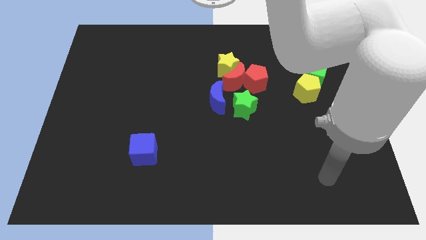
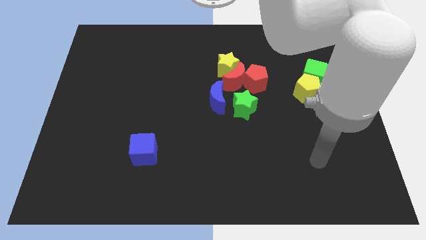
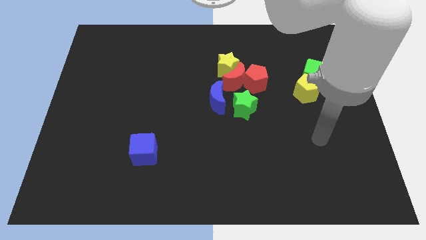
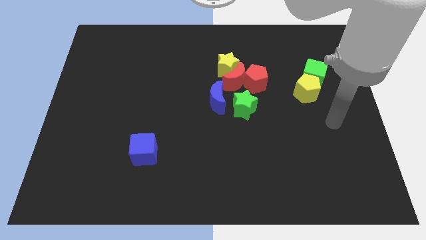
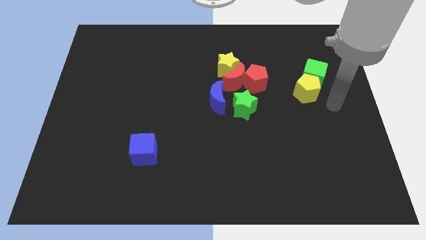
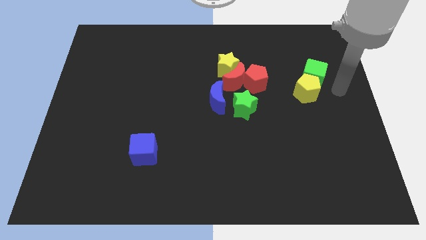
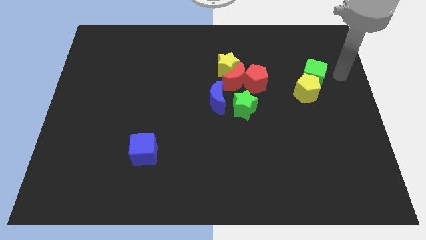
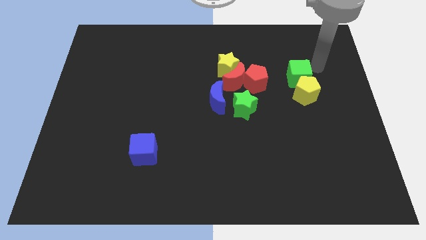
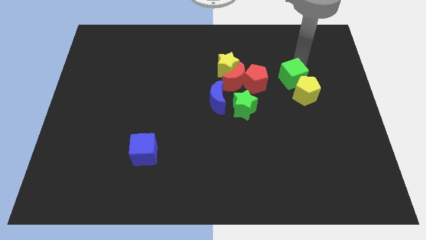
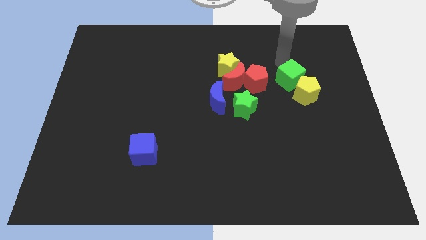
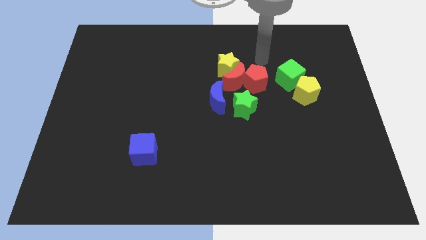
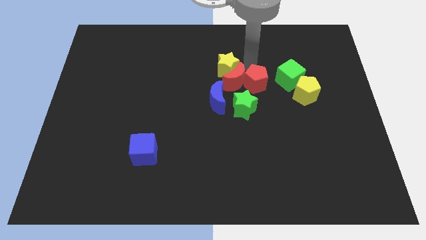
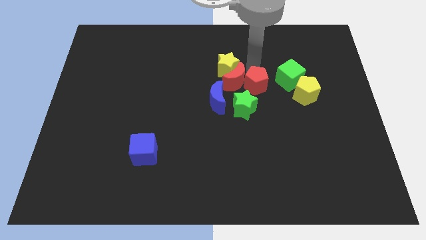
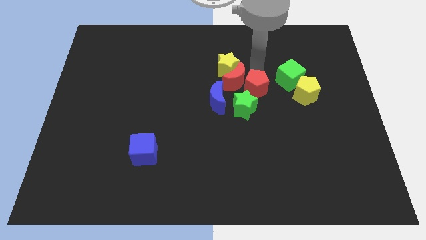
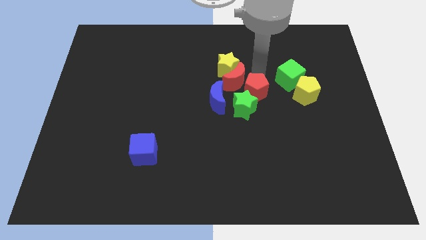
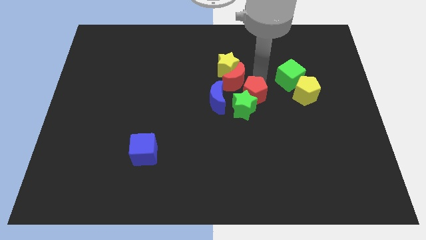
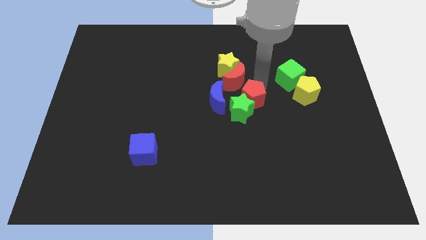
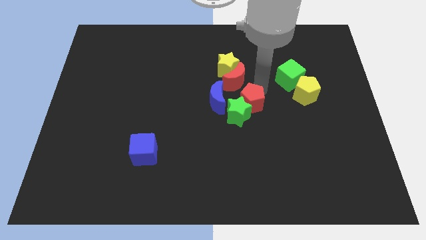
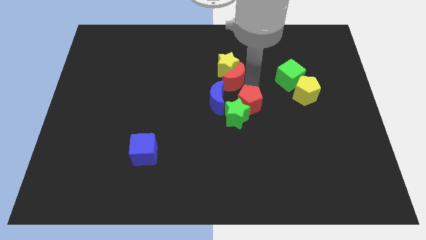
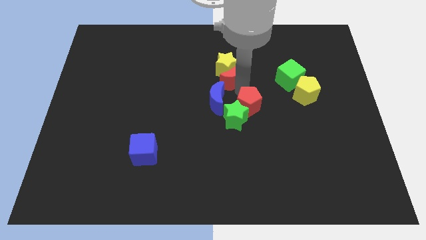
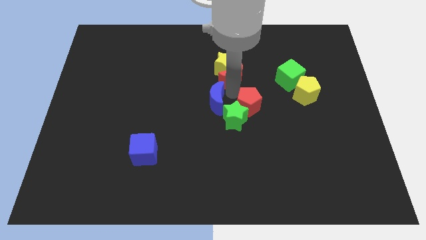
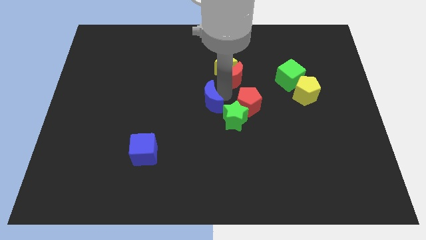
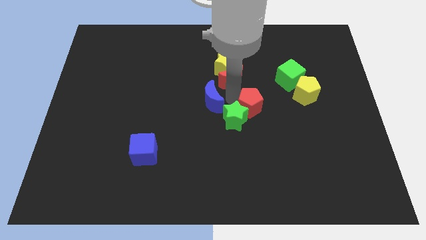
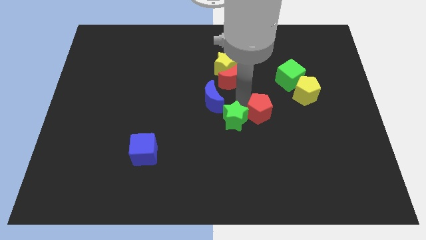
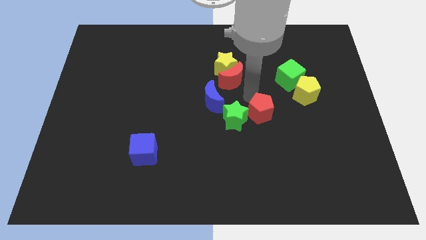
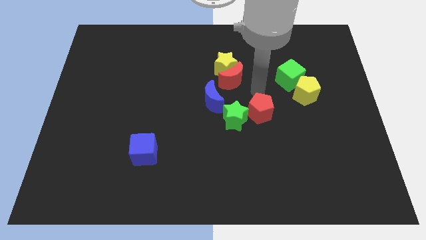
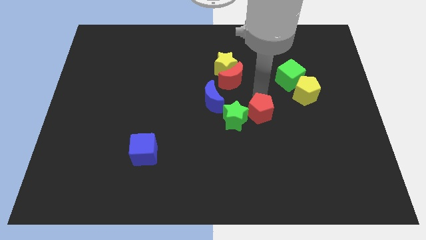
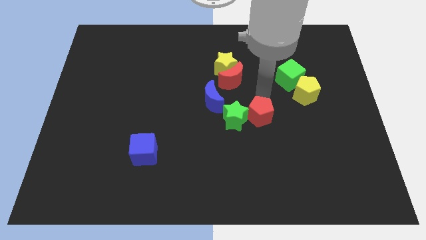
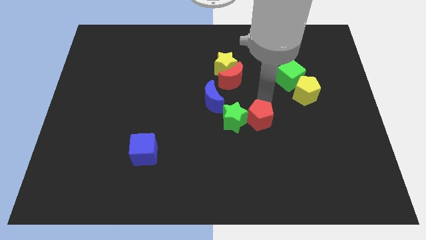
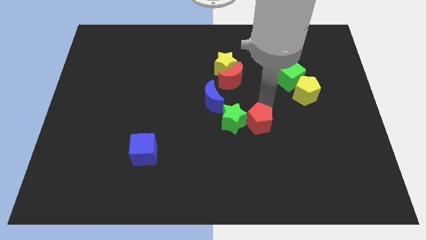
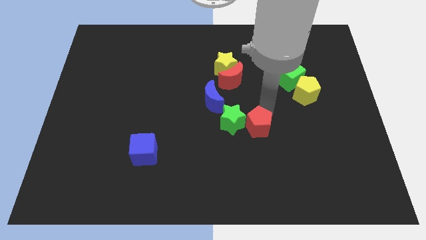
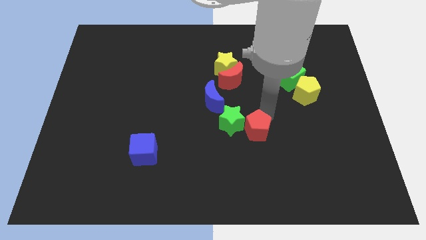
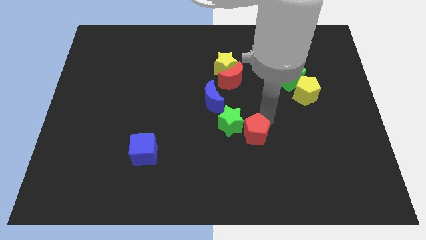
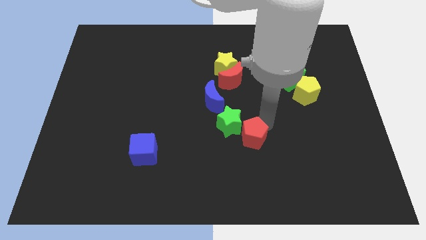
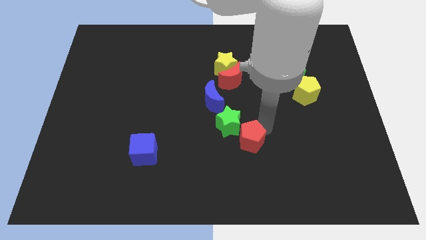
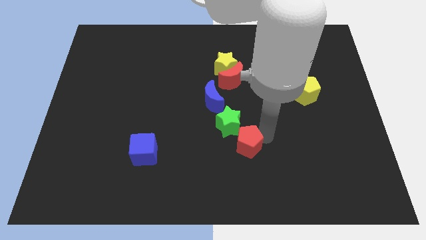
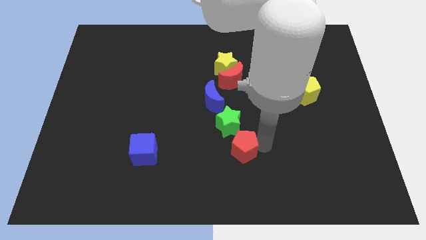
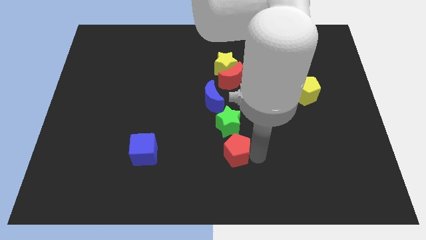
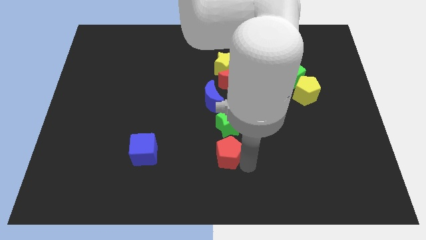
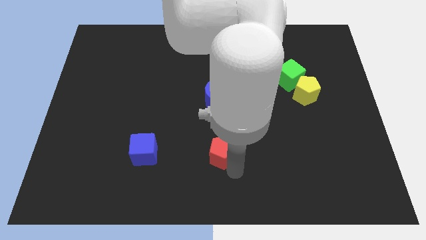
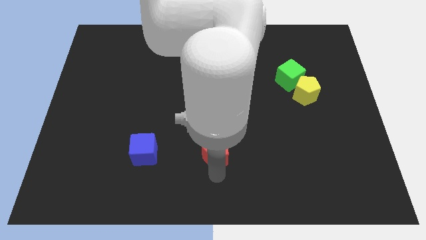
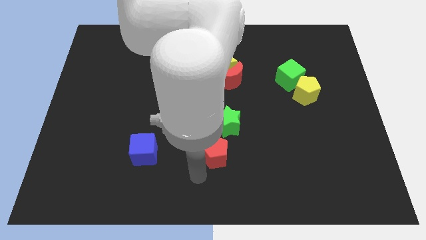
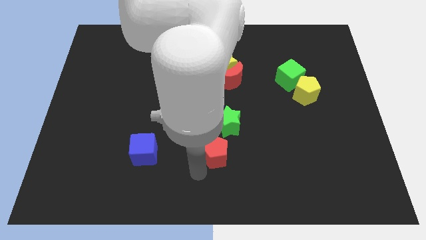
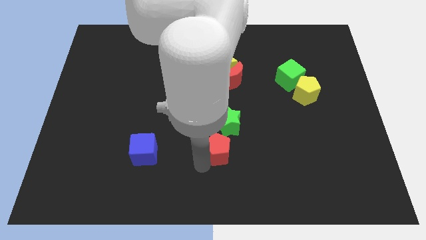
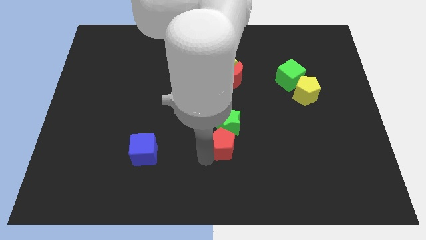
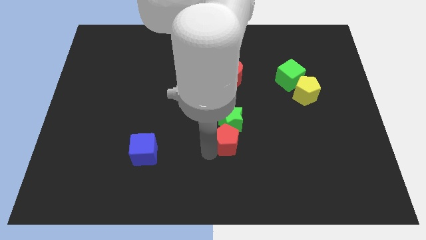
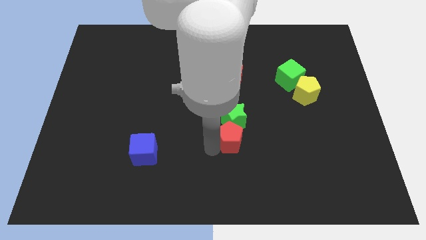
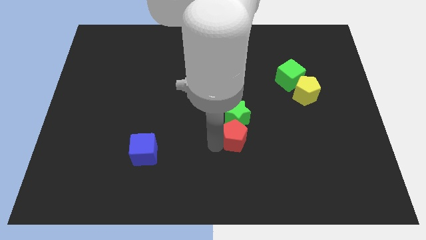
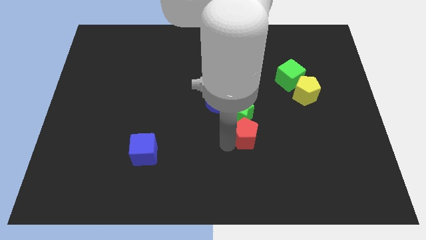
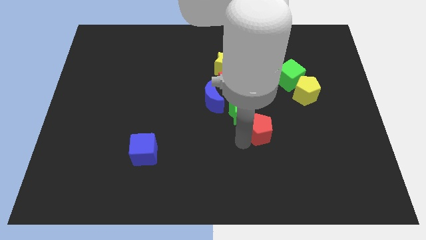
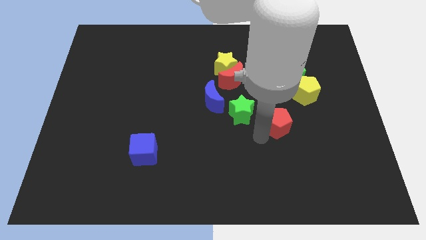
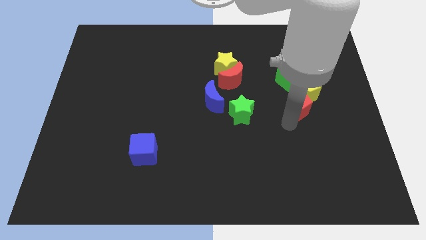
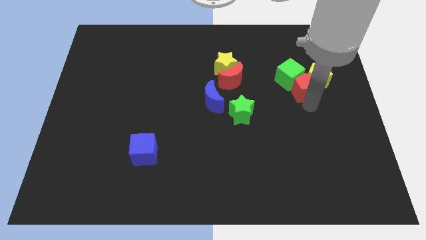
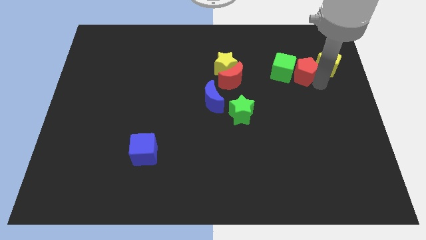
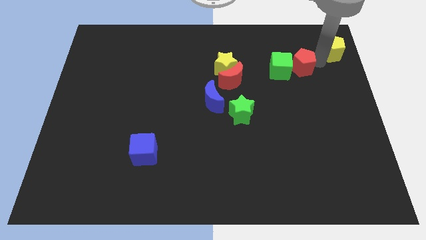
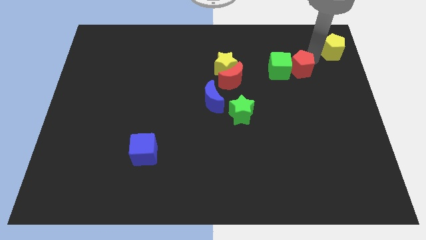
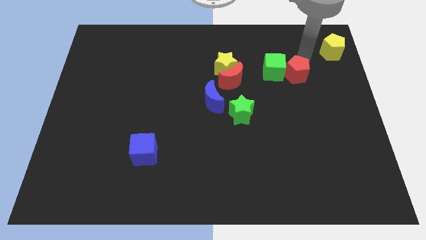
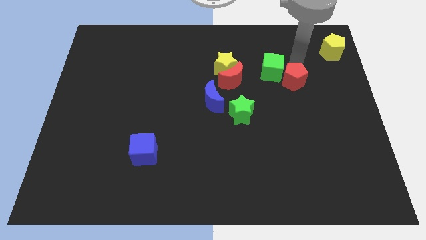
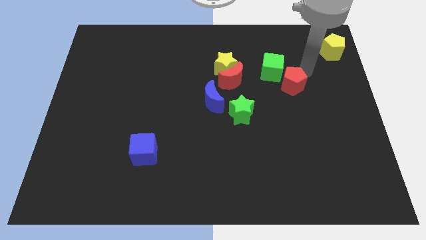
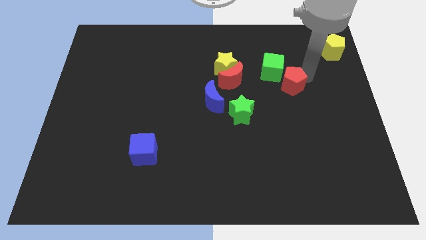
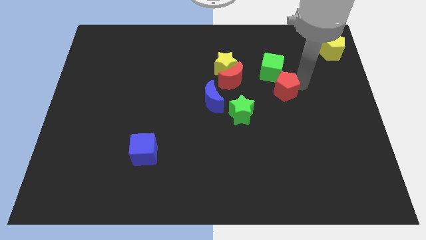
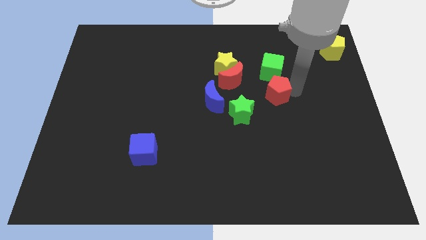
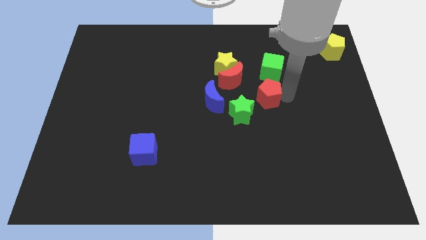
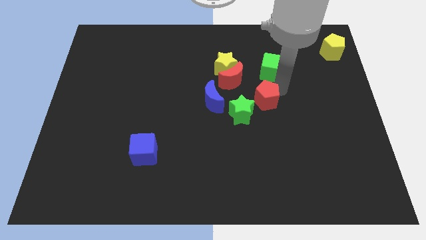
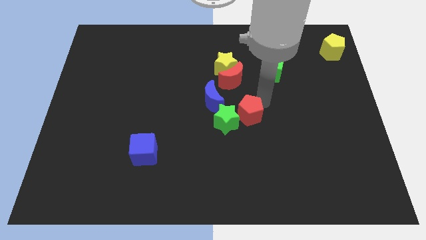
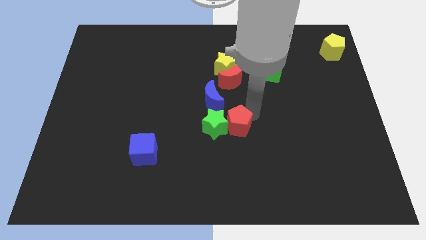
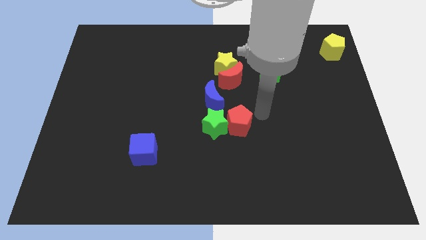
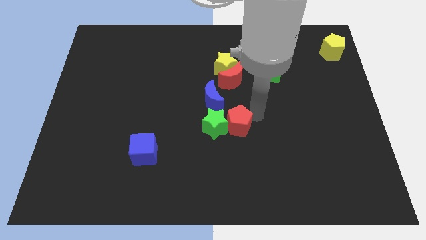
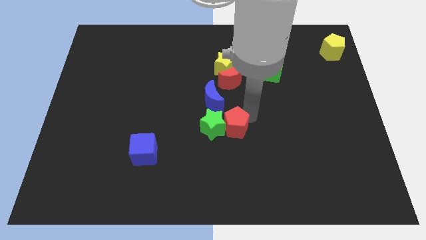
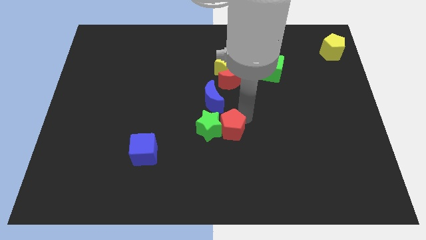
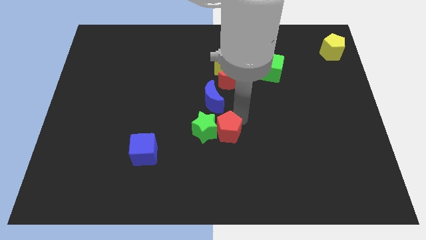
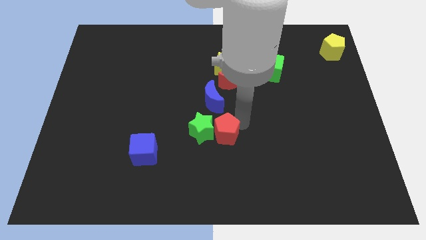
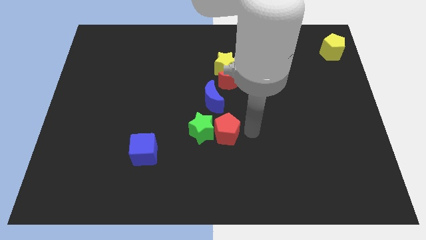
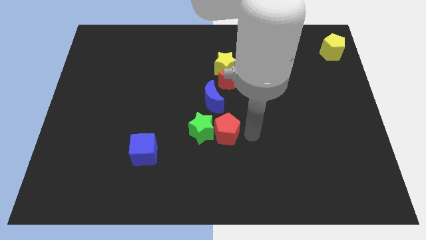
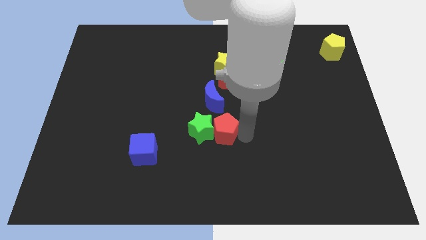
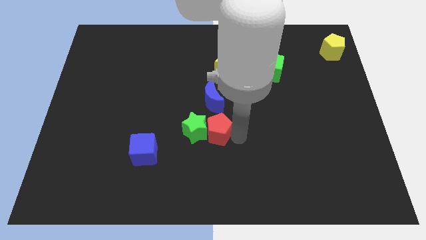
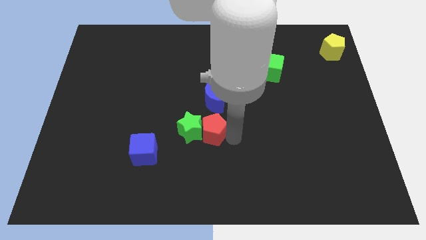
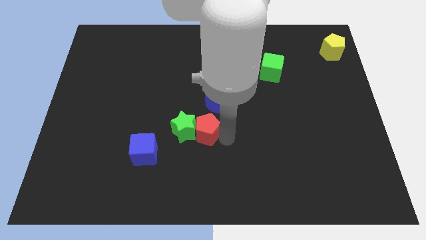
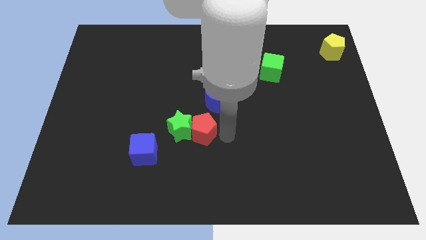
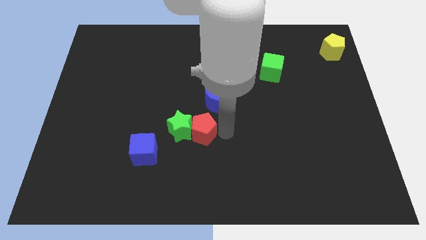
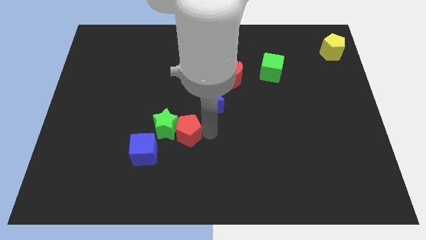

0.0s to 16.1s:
put the red pentagon to the top right side of the blue cube
